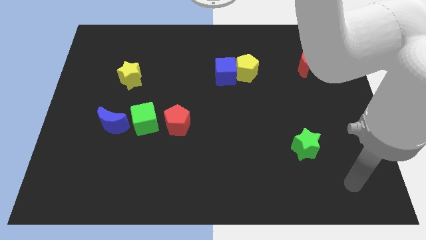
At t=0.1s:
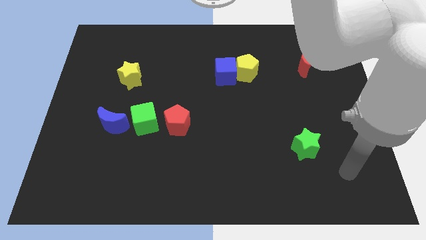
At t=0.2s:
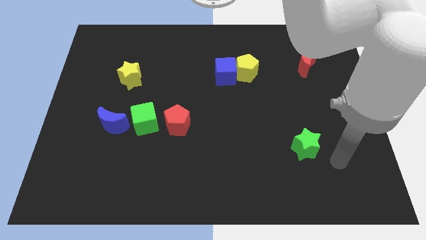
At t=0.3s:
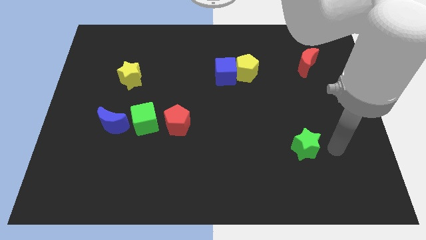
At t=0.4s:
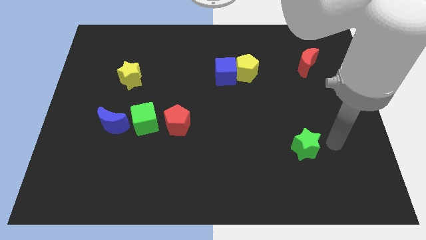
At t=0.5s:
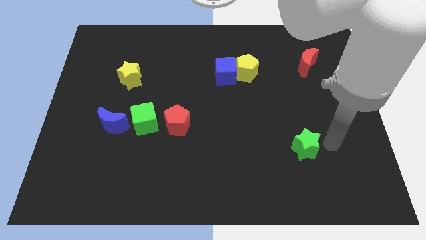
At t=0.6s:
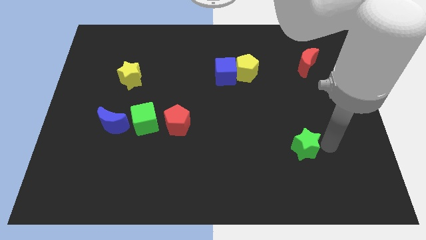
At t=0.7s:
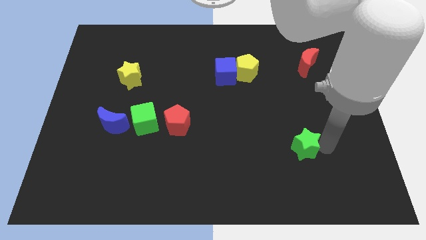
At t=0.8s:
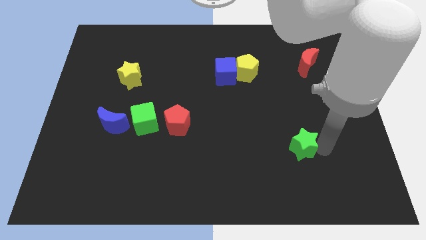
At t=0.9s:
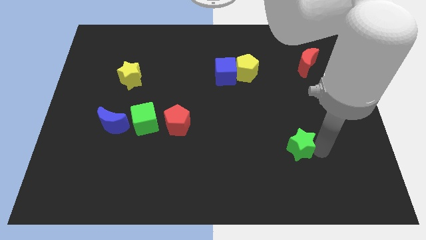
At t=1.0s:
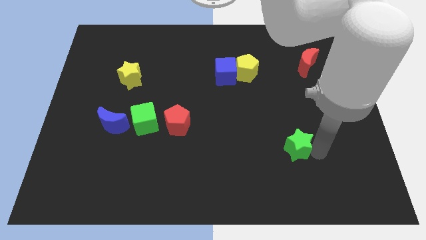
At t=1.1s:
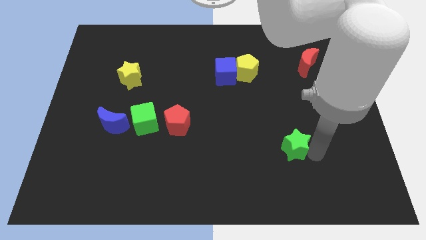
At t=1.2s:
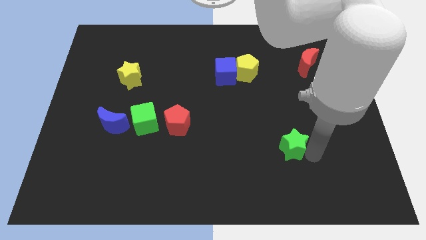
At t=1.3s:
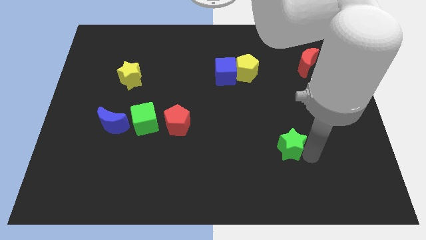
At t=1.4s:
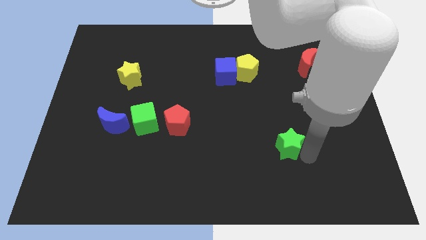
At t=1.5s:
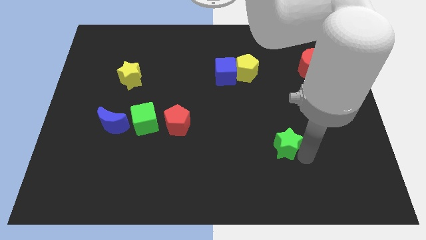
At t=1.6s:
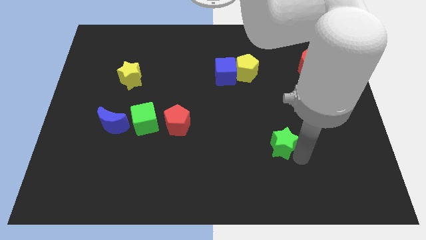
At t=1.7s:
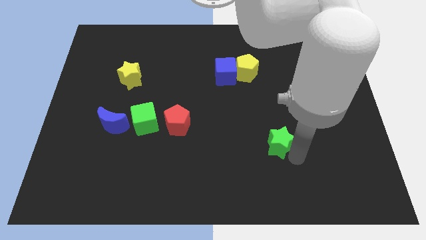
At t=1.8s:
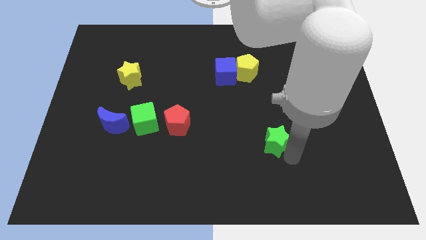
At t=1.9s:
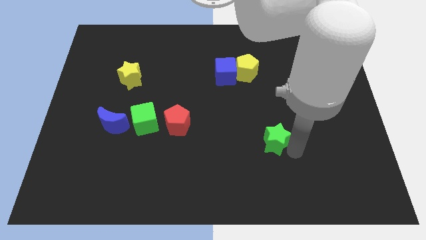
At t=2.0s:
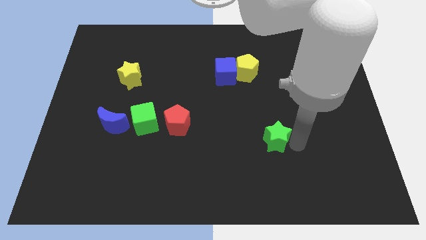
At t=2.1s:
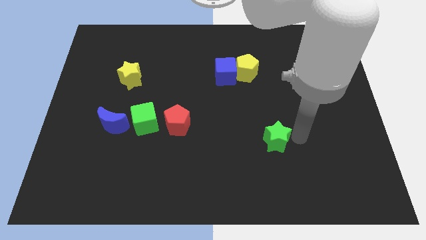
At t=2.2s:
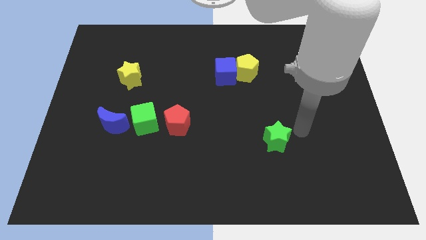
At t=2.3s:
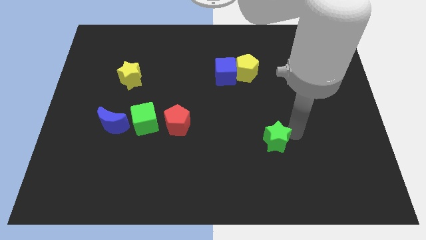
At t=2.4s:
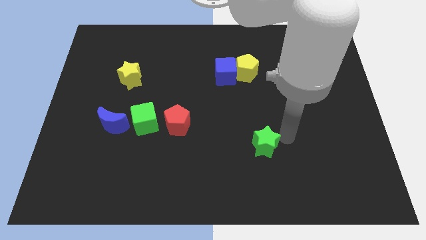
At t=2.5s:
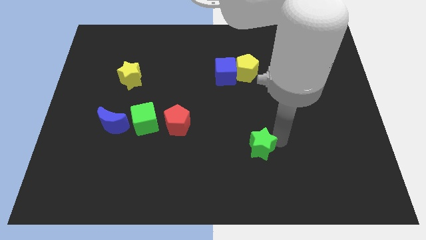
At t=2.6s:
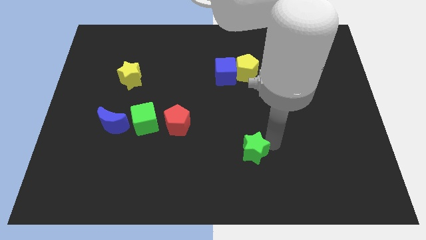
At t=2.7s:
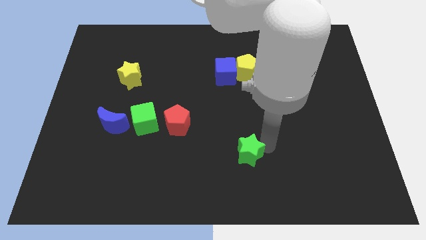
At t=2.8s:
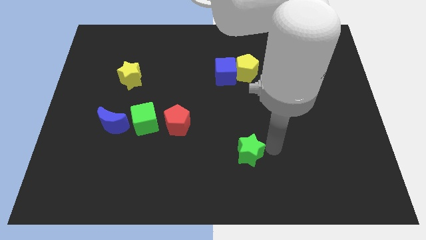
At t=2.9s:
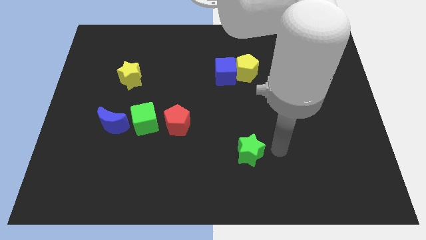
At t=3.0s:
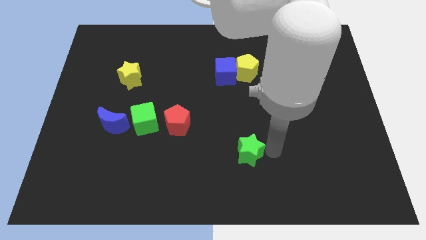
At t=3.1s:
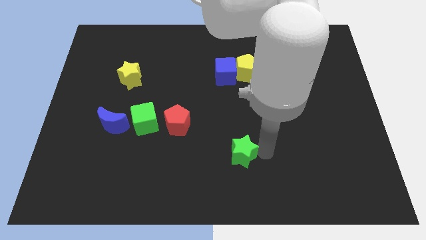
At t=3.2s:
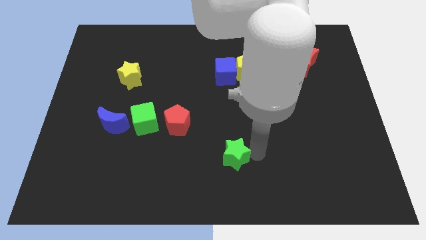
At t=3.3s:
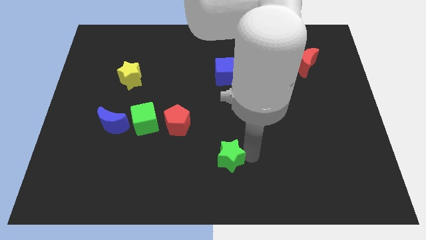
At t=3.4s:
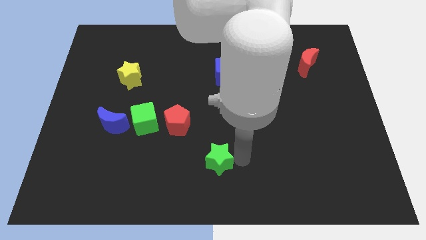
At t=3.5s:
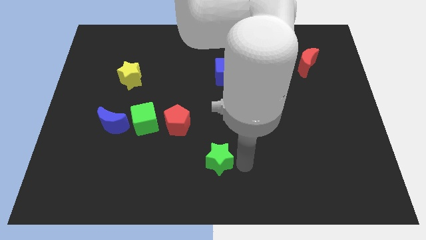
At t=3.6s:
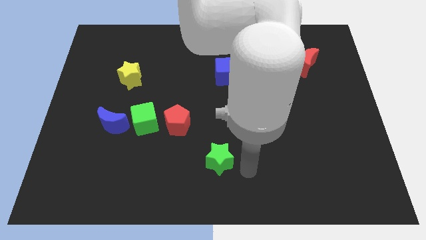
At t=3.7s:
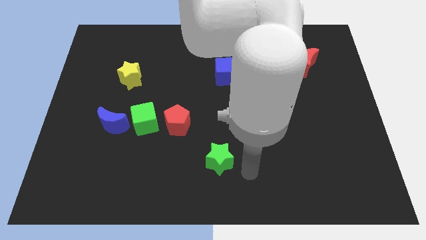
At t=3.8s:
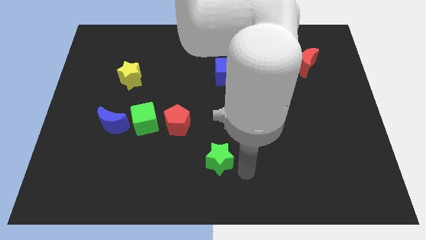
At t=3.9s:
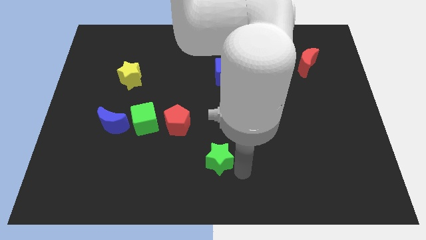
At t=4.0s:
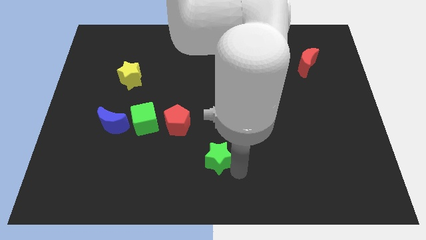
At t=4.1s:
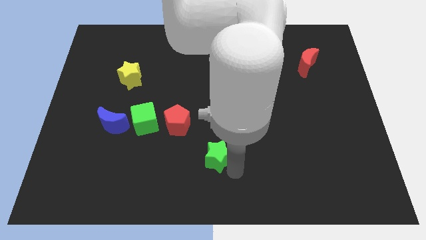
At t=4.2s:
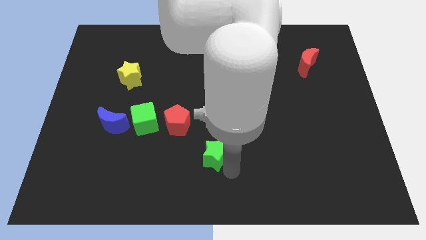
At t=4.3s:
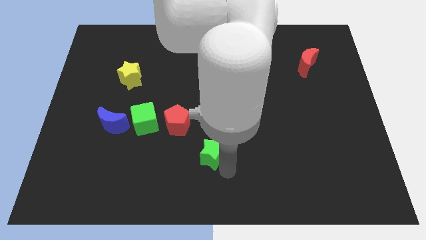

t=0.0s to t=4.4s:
move the green star left

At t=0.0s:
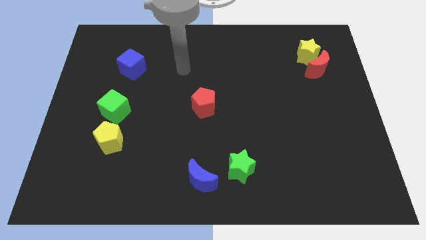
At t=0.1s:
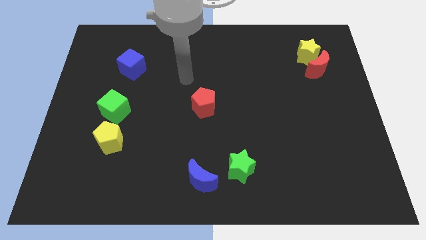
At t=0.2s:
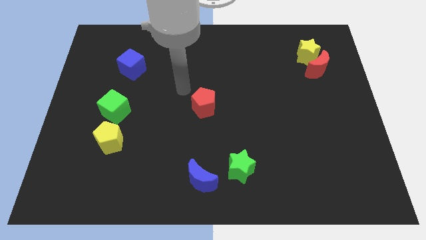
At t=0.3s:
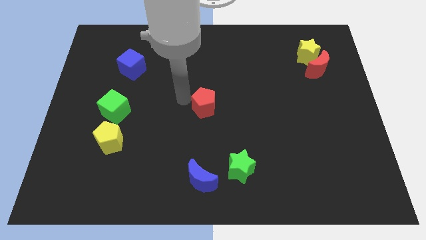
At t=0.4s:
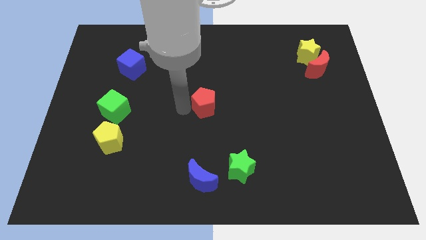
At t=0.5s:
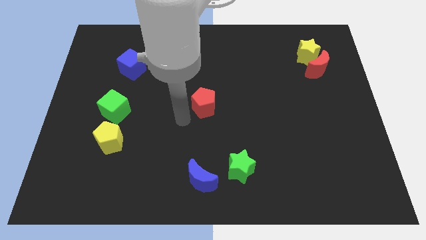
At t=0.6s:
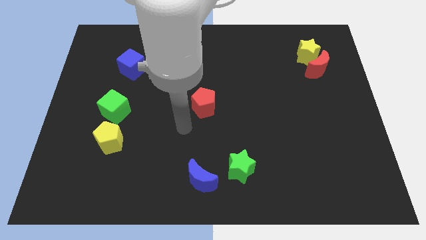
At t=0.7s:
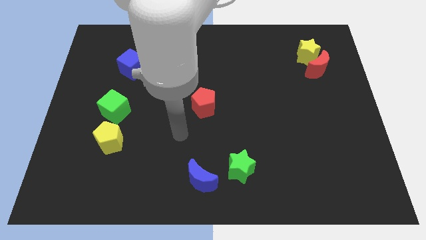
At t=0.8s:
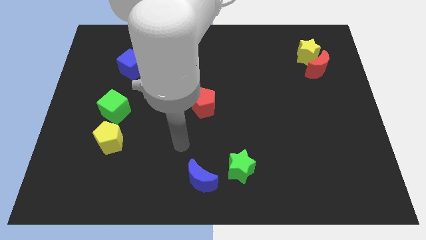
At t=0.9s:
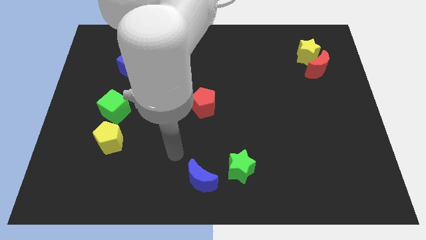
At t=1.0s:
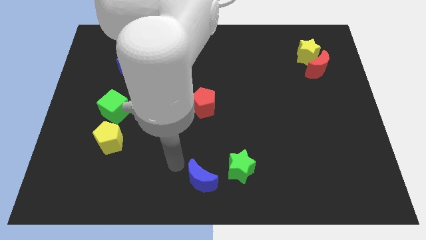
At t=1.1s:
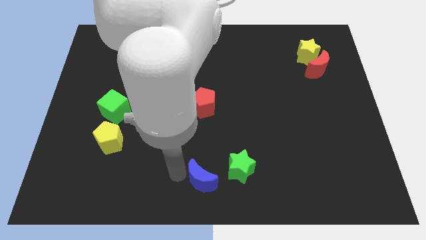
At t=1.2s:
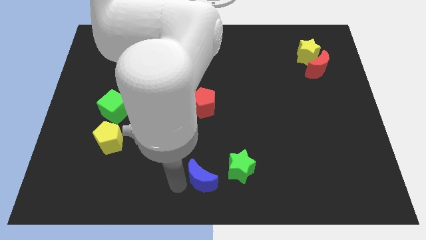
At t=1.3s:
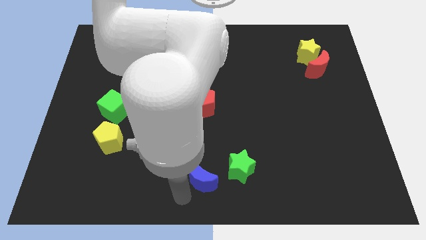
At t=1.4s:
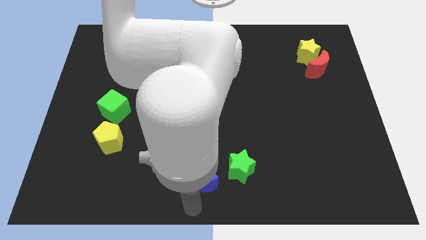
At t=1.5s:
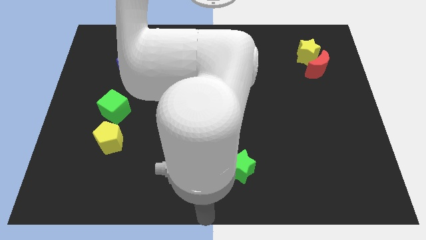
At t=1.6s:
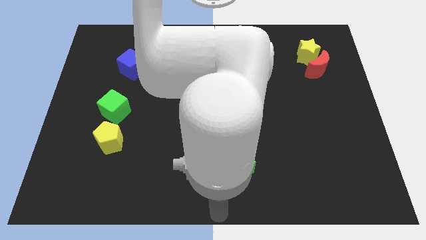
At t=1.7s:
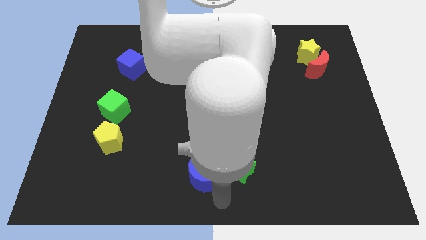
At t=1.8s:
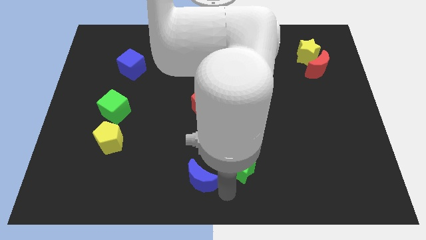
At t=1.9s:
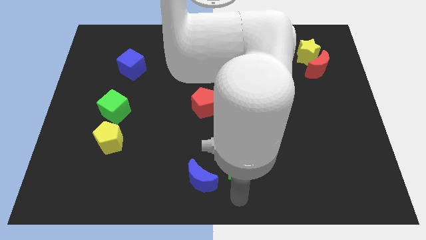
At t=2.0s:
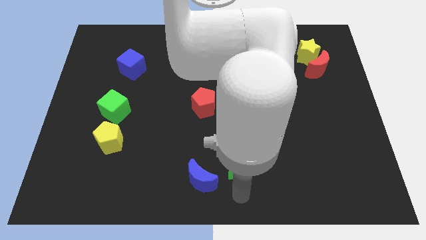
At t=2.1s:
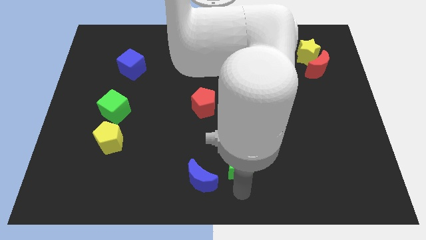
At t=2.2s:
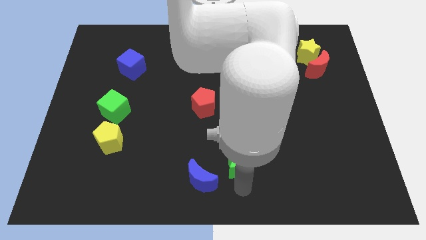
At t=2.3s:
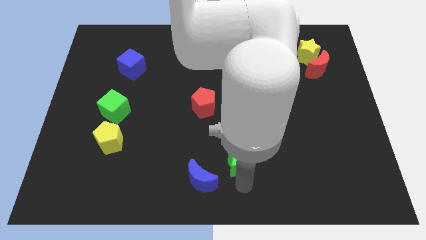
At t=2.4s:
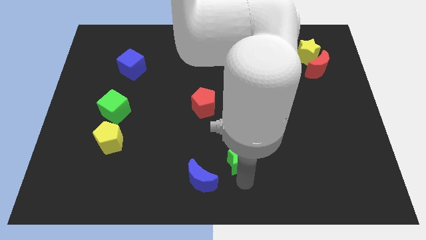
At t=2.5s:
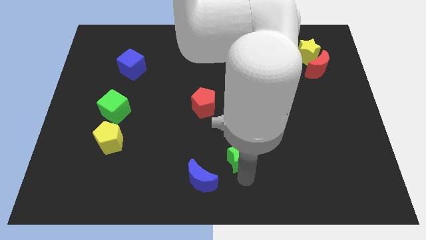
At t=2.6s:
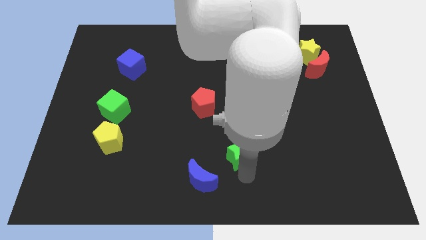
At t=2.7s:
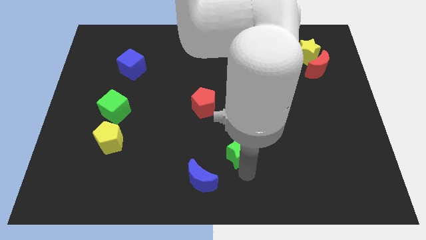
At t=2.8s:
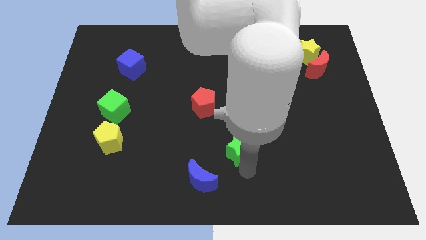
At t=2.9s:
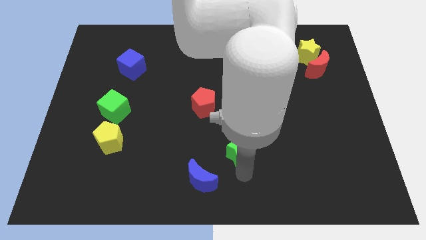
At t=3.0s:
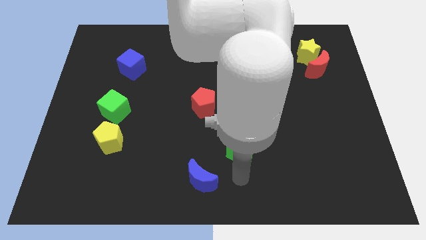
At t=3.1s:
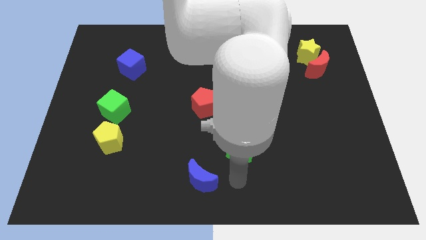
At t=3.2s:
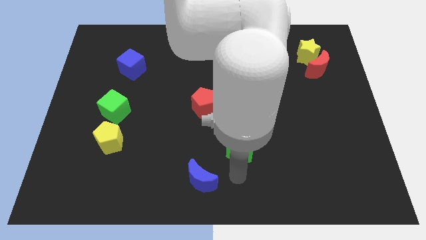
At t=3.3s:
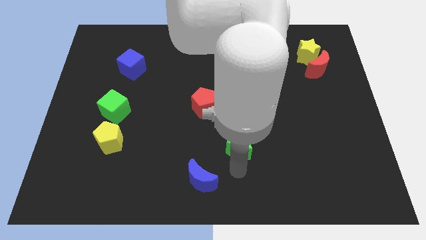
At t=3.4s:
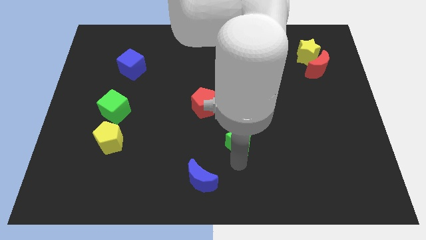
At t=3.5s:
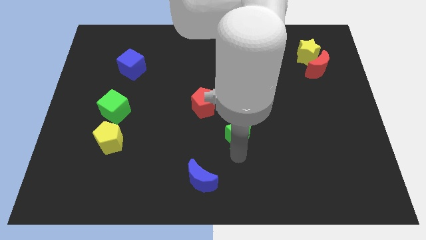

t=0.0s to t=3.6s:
push the green star up a bit
